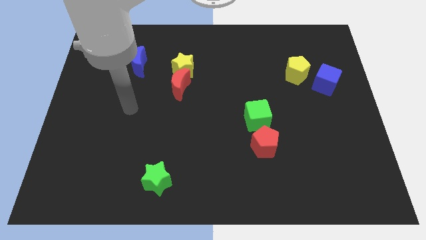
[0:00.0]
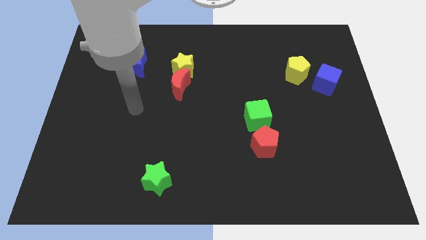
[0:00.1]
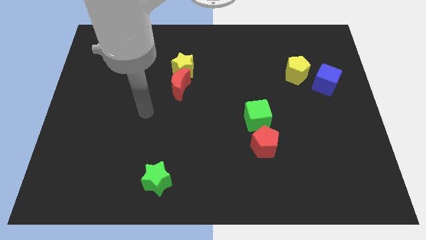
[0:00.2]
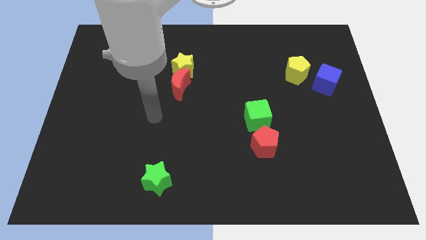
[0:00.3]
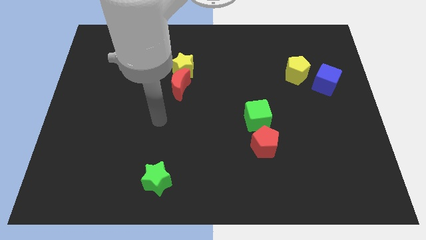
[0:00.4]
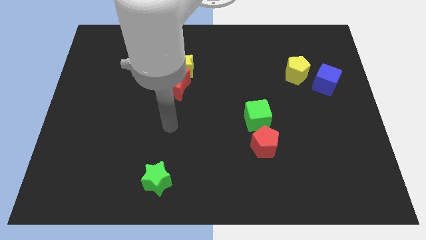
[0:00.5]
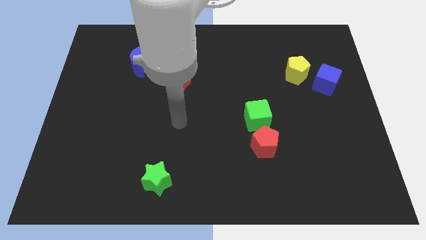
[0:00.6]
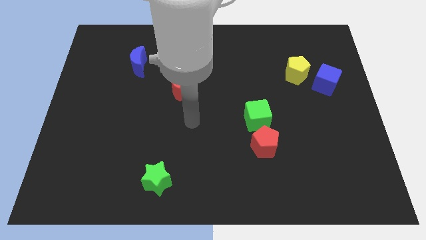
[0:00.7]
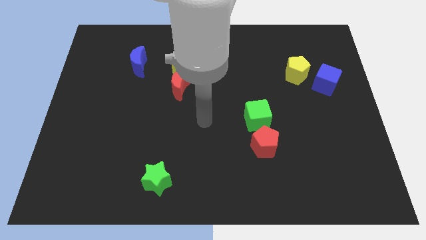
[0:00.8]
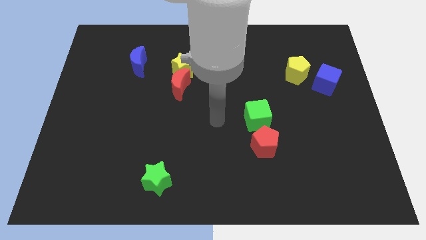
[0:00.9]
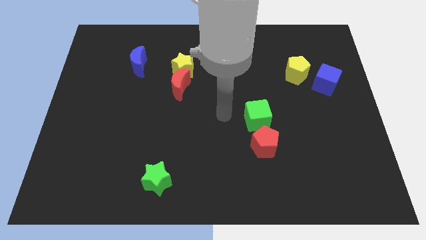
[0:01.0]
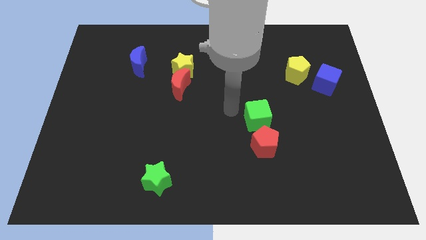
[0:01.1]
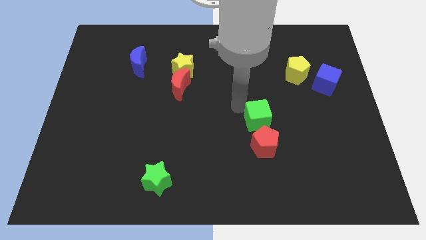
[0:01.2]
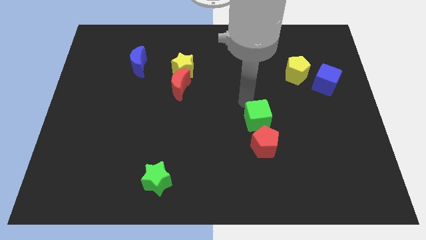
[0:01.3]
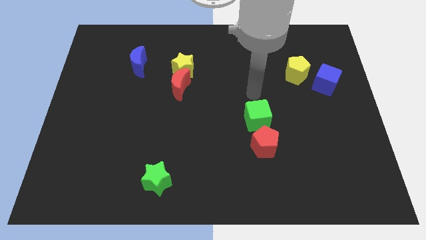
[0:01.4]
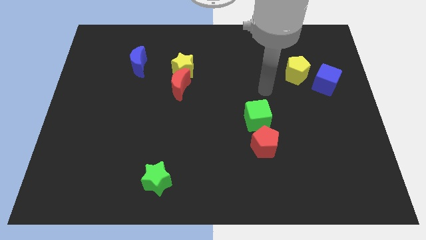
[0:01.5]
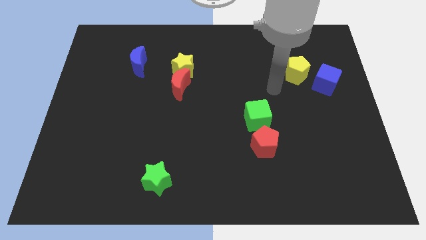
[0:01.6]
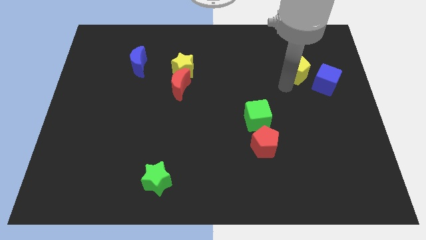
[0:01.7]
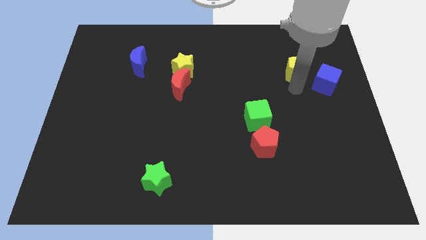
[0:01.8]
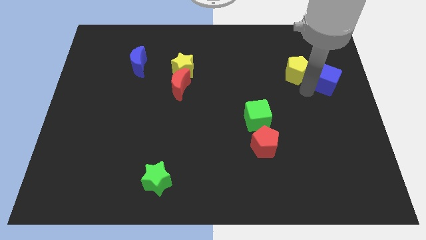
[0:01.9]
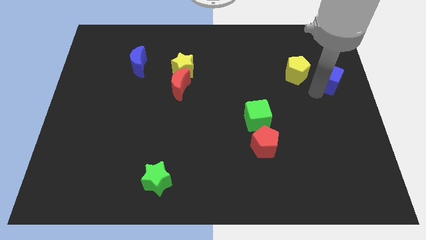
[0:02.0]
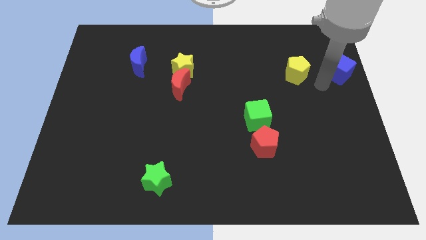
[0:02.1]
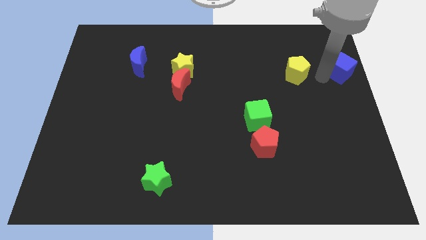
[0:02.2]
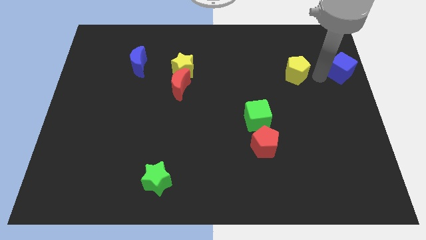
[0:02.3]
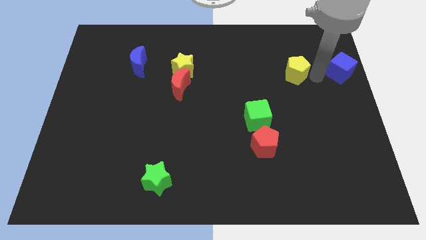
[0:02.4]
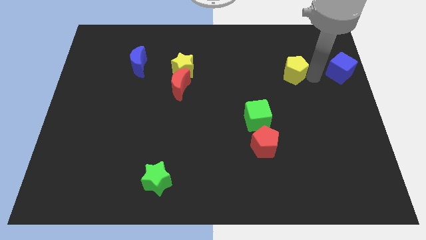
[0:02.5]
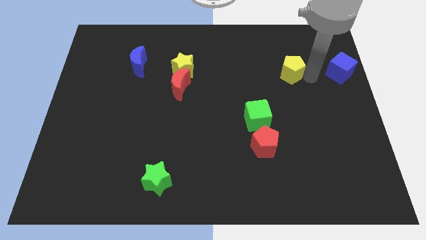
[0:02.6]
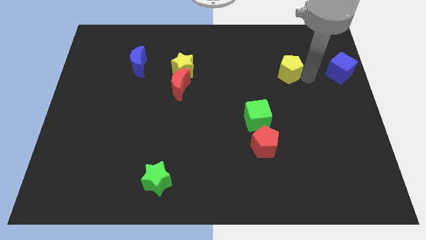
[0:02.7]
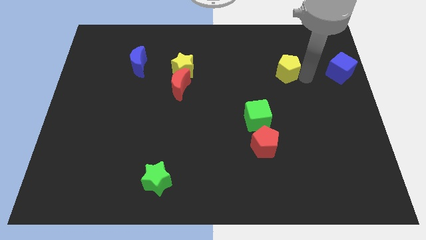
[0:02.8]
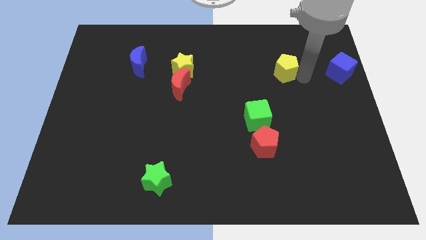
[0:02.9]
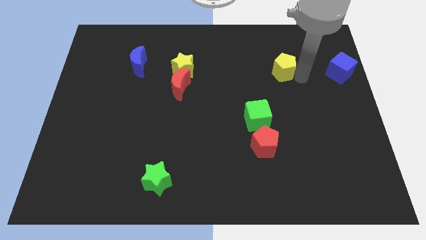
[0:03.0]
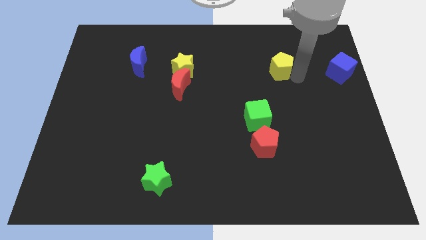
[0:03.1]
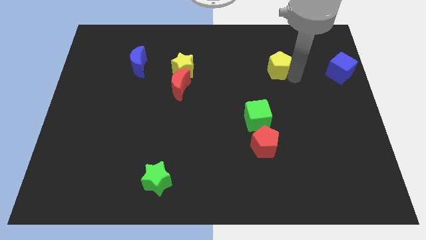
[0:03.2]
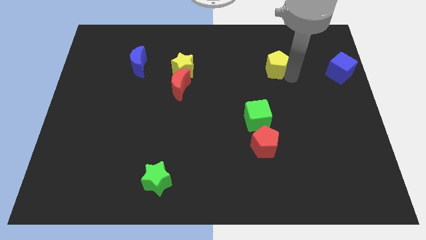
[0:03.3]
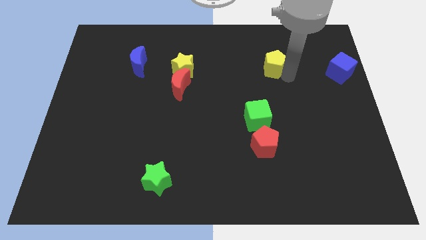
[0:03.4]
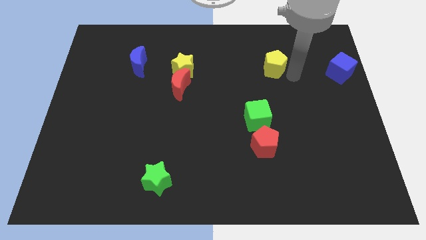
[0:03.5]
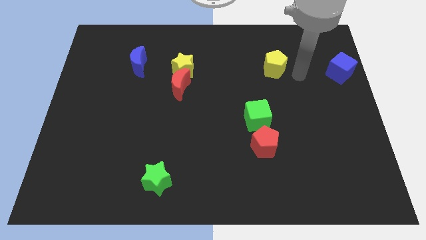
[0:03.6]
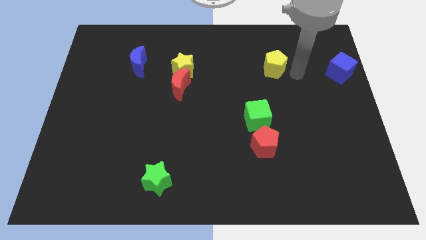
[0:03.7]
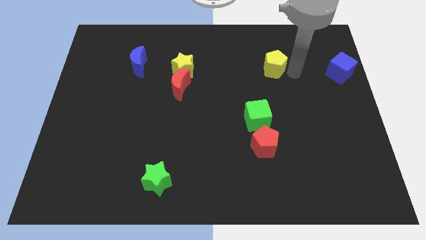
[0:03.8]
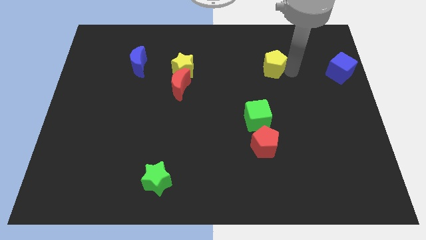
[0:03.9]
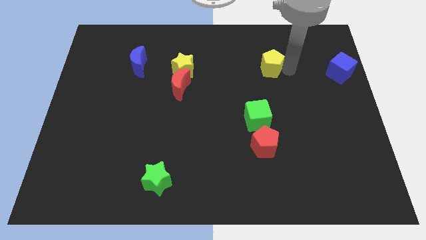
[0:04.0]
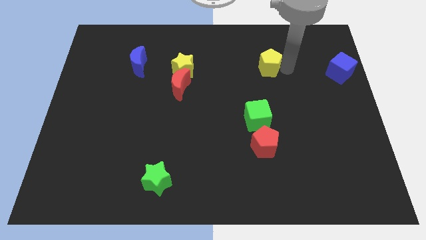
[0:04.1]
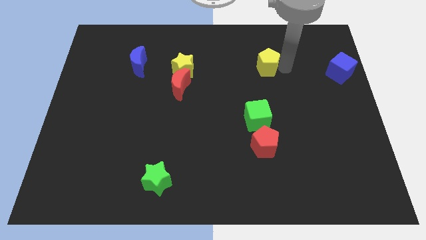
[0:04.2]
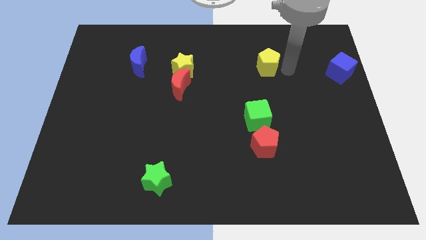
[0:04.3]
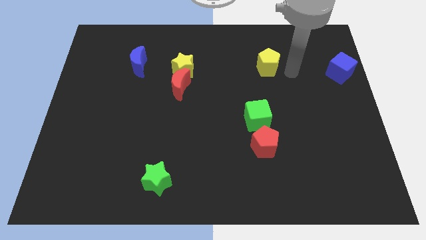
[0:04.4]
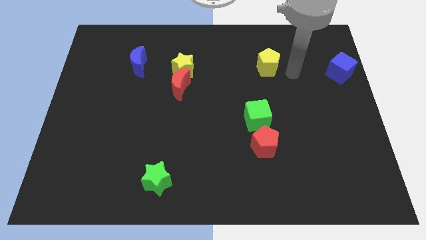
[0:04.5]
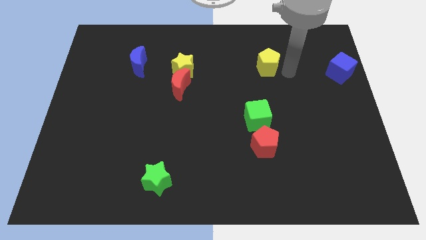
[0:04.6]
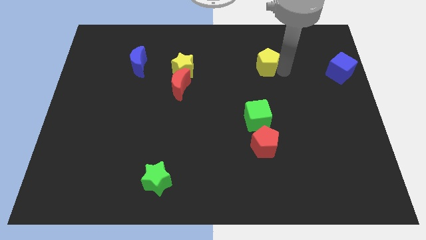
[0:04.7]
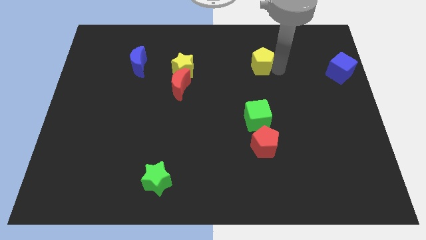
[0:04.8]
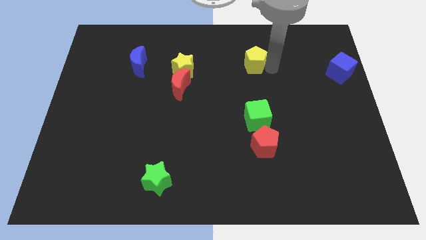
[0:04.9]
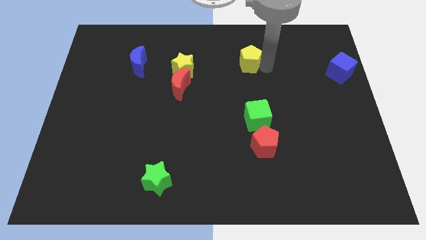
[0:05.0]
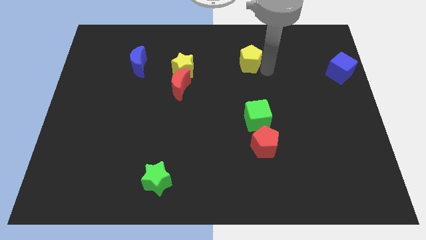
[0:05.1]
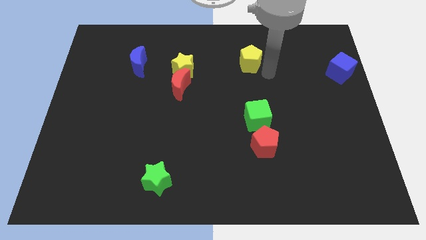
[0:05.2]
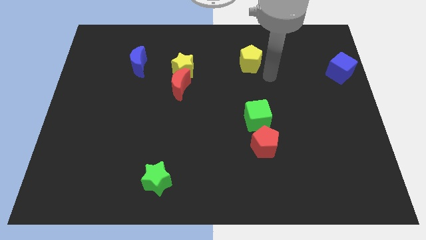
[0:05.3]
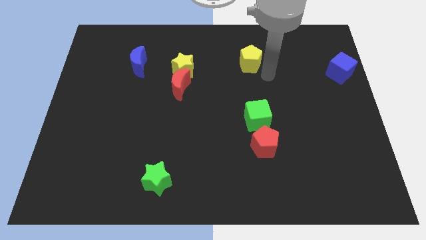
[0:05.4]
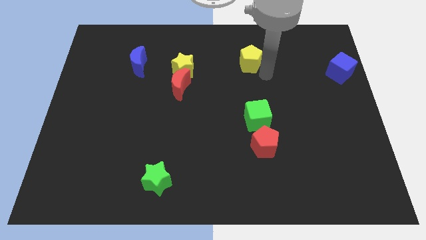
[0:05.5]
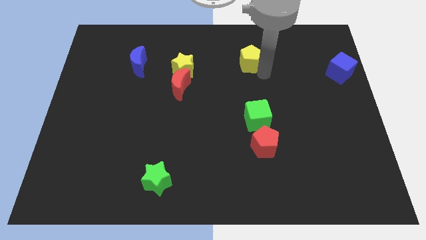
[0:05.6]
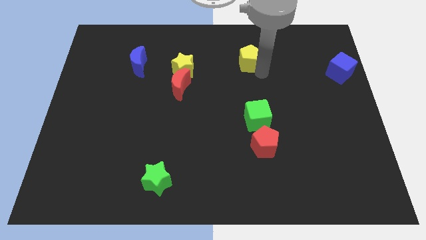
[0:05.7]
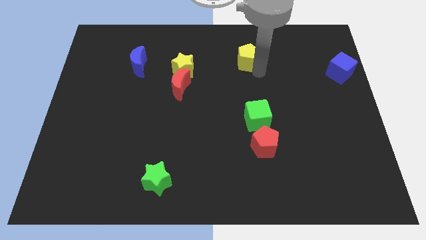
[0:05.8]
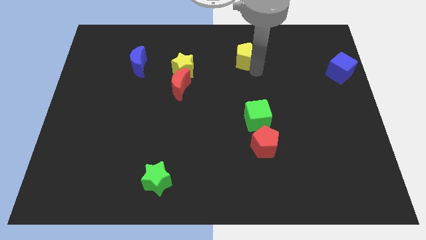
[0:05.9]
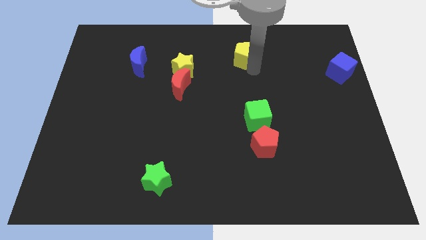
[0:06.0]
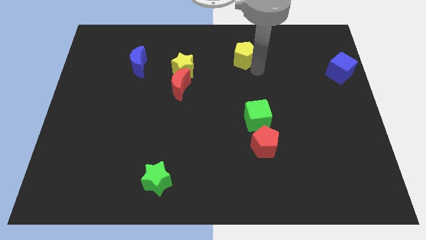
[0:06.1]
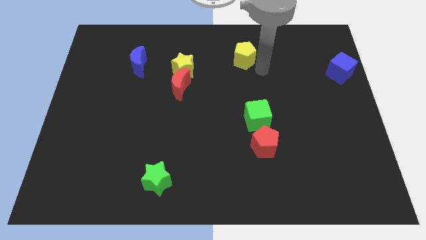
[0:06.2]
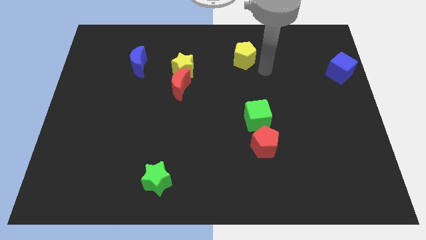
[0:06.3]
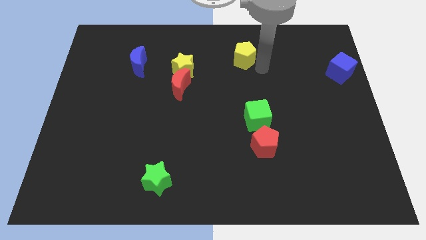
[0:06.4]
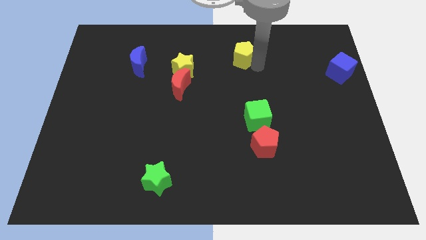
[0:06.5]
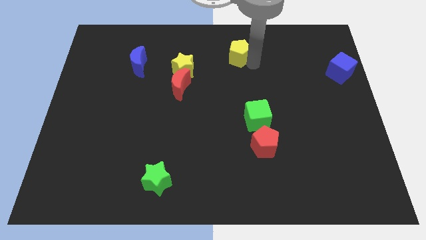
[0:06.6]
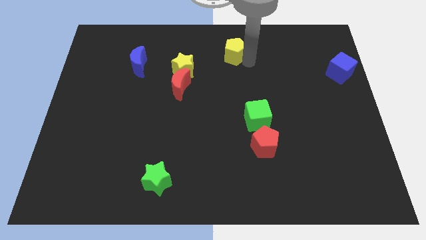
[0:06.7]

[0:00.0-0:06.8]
put the yellow pentagon to the top side

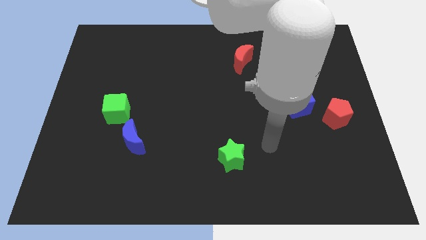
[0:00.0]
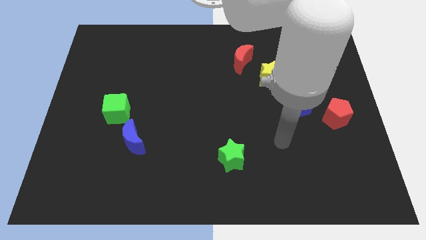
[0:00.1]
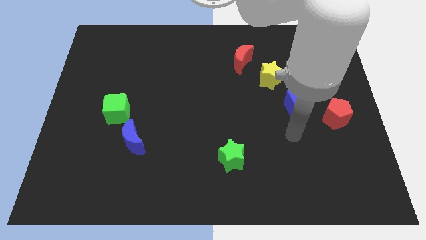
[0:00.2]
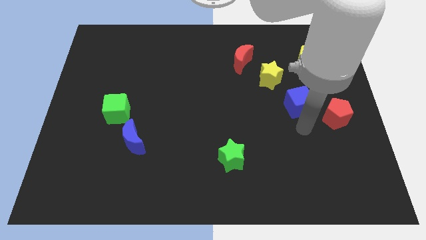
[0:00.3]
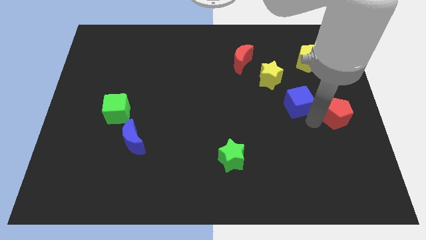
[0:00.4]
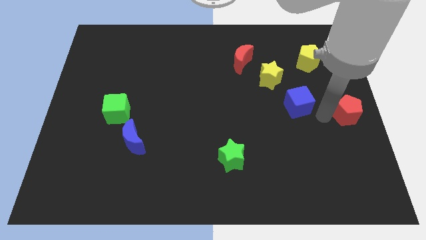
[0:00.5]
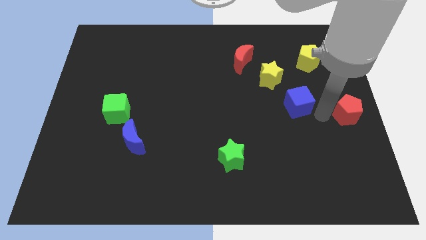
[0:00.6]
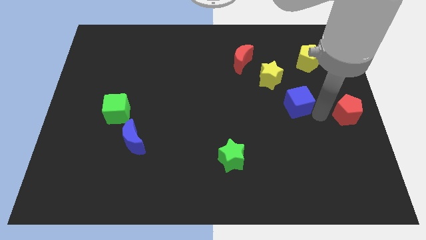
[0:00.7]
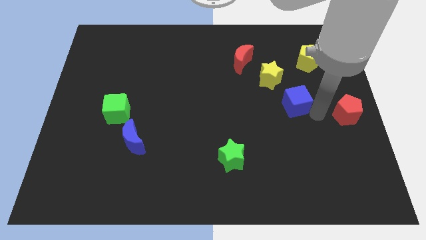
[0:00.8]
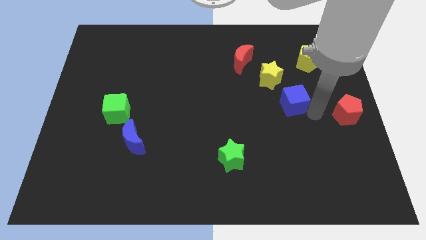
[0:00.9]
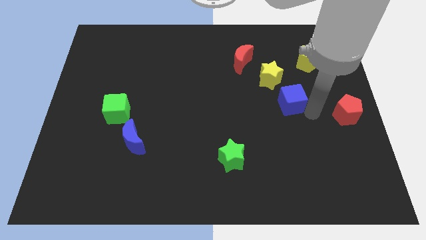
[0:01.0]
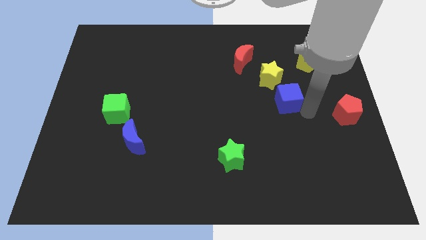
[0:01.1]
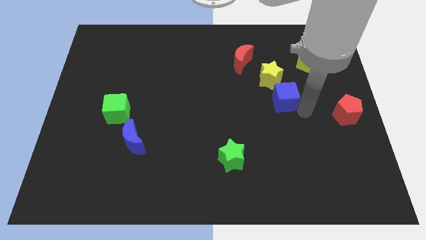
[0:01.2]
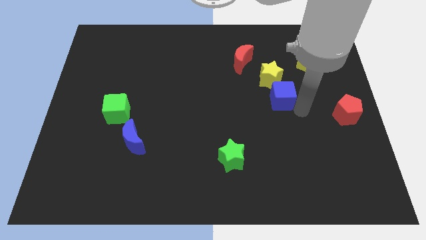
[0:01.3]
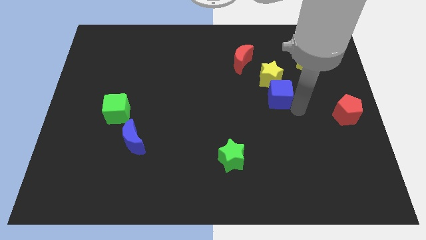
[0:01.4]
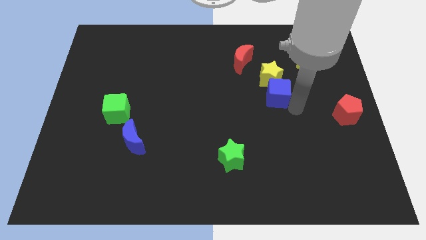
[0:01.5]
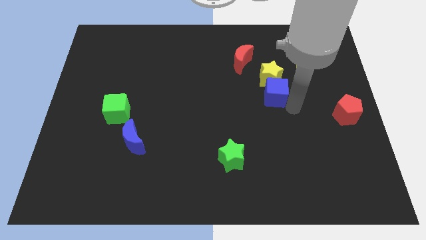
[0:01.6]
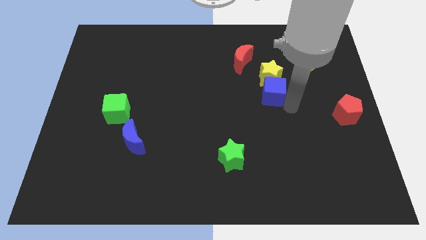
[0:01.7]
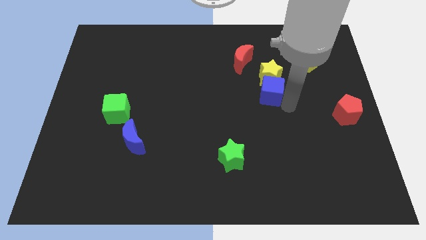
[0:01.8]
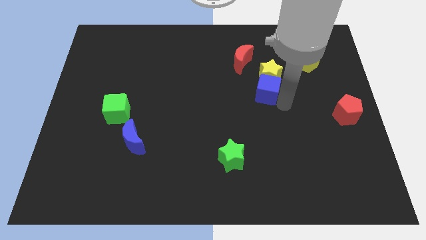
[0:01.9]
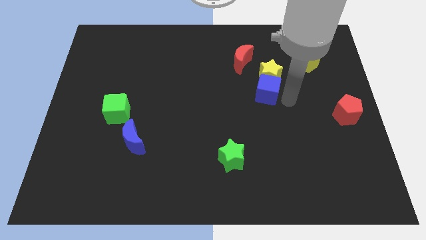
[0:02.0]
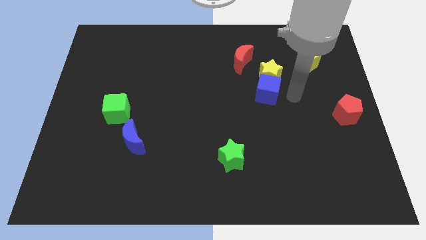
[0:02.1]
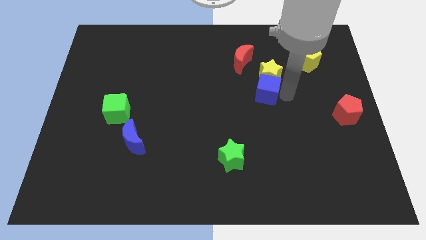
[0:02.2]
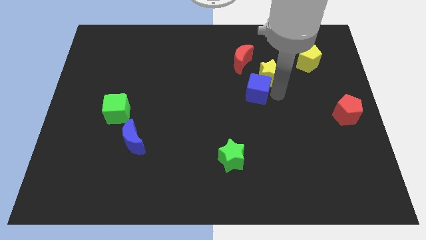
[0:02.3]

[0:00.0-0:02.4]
put the blue cube to the middle of the board
